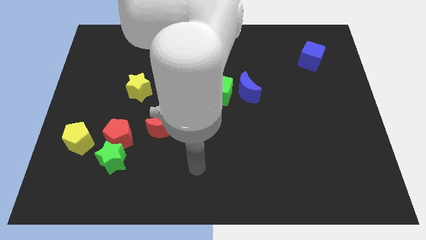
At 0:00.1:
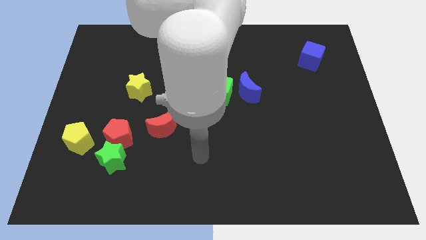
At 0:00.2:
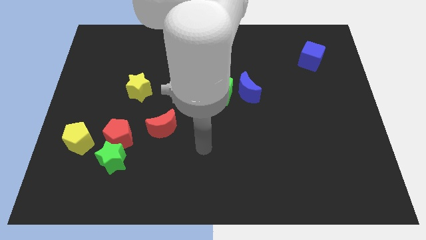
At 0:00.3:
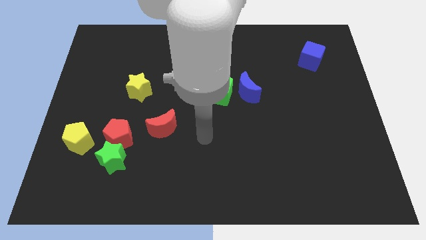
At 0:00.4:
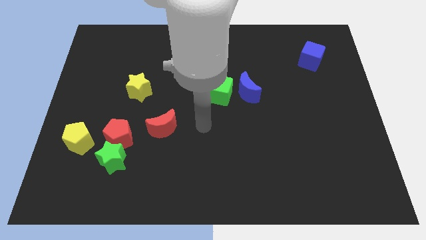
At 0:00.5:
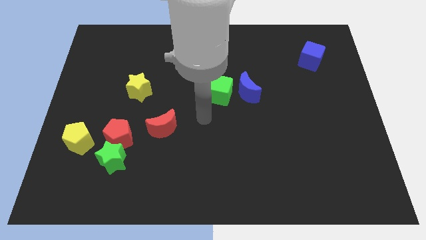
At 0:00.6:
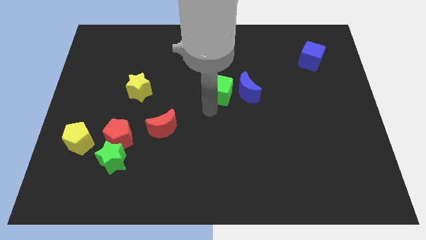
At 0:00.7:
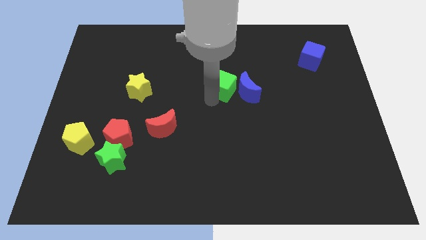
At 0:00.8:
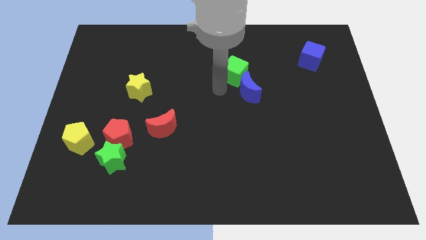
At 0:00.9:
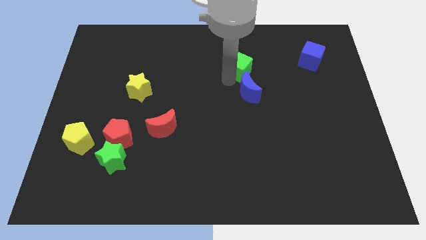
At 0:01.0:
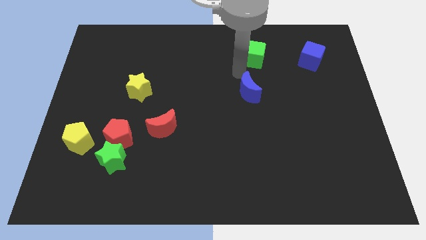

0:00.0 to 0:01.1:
separate the blue moon from the green cube

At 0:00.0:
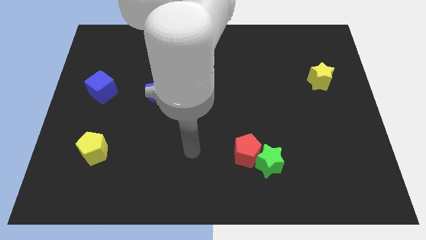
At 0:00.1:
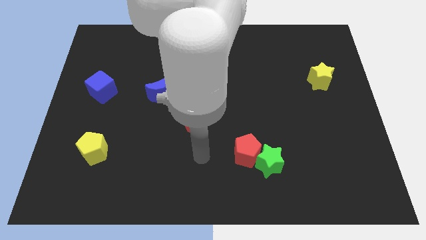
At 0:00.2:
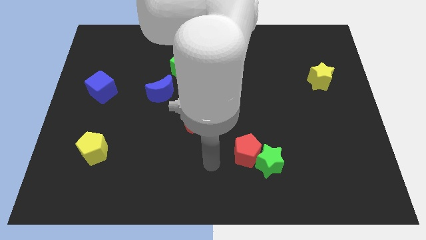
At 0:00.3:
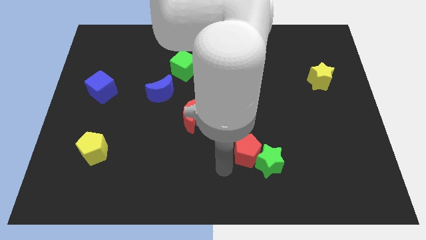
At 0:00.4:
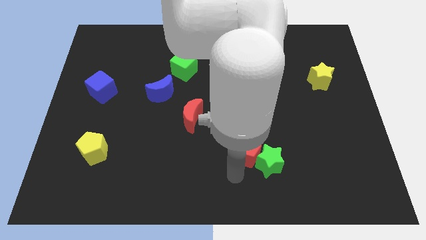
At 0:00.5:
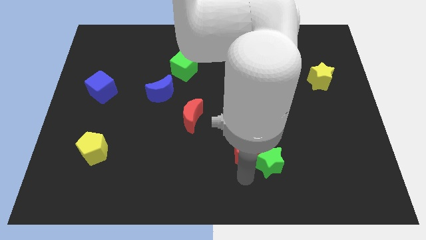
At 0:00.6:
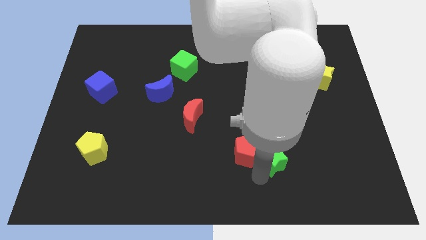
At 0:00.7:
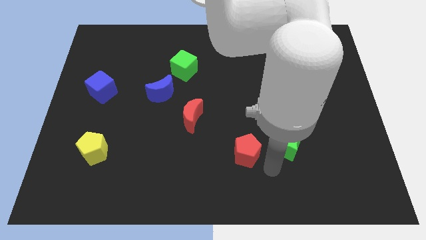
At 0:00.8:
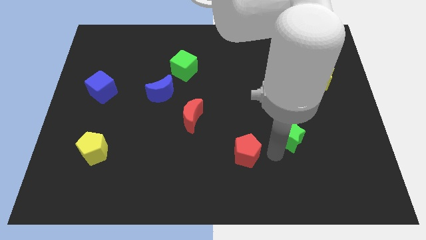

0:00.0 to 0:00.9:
separate the red pentagon from the green star

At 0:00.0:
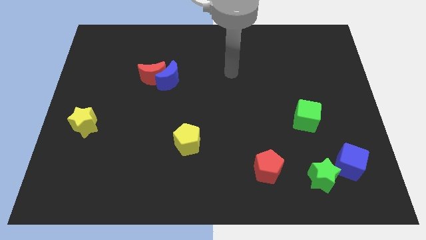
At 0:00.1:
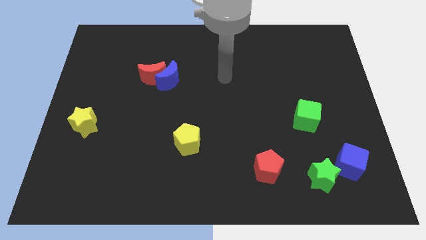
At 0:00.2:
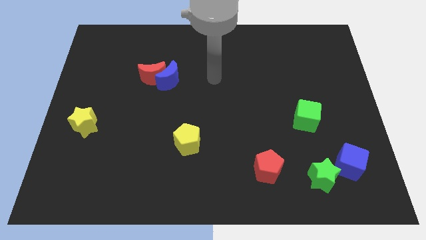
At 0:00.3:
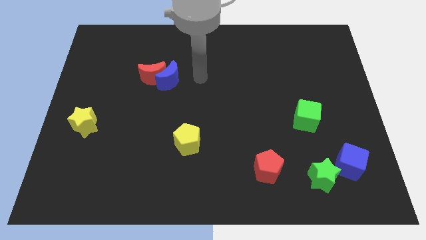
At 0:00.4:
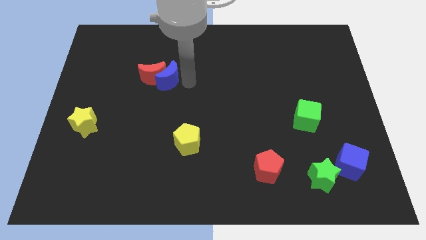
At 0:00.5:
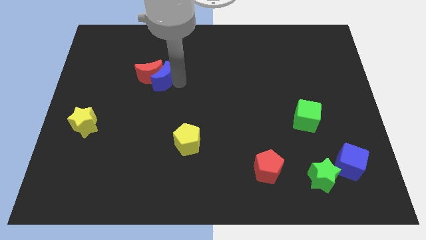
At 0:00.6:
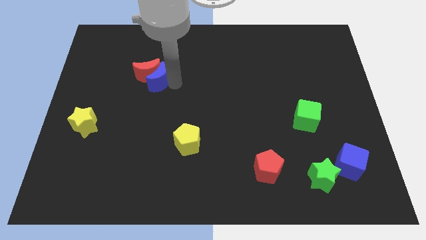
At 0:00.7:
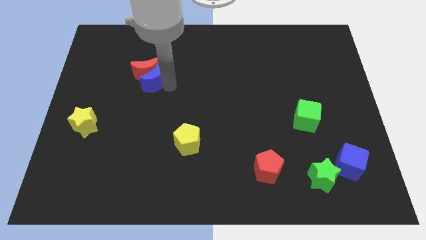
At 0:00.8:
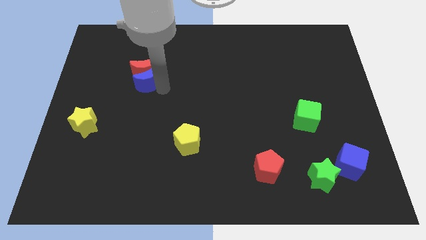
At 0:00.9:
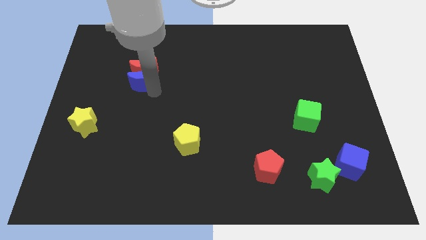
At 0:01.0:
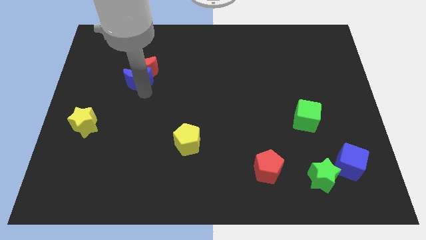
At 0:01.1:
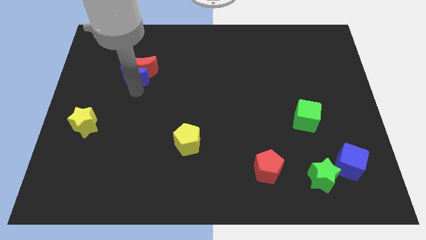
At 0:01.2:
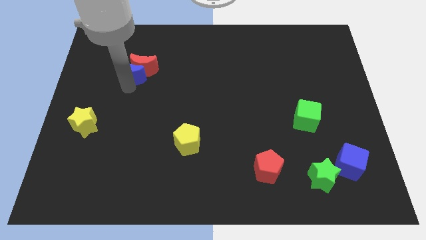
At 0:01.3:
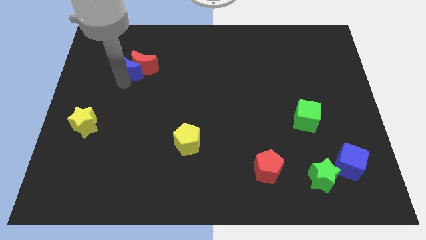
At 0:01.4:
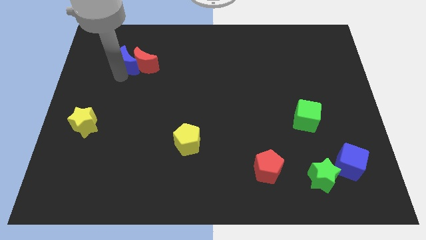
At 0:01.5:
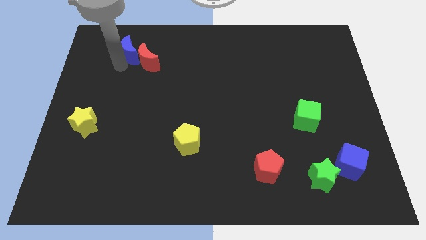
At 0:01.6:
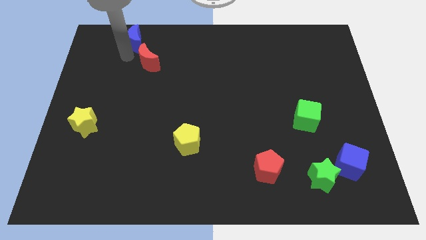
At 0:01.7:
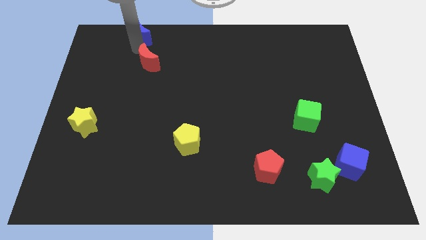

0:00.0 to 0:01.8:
move the red moon away from the blue moon

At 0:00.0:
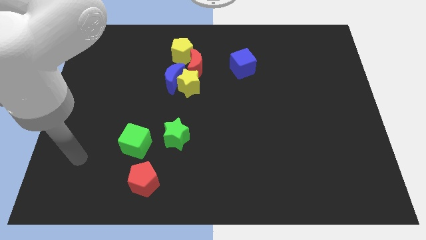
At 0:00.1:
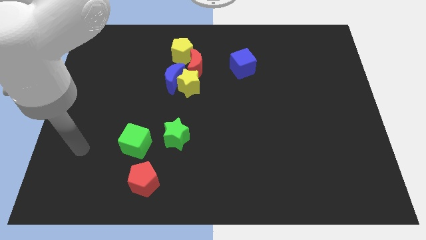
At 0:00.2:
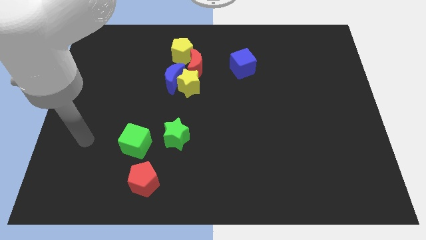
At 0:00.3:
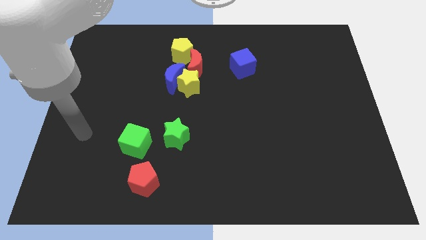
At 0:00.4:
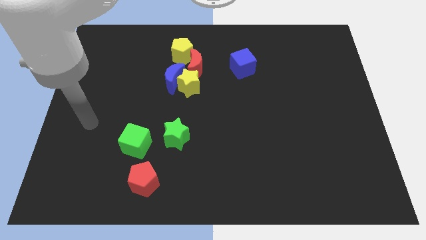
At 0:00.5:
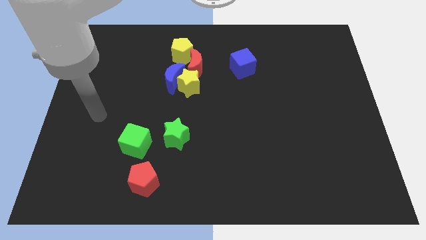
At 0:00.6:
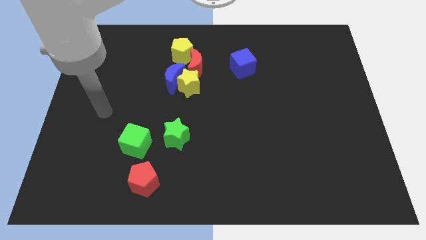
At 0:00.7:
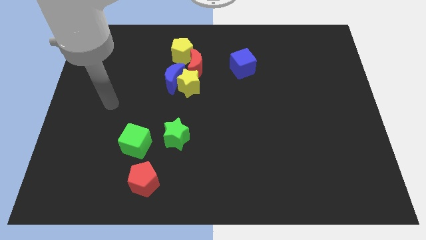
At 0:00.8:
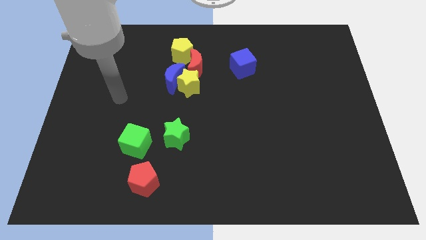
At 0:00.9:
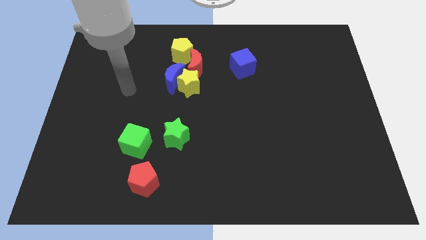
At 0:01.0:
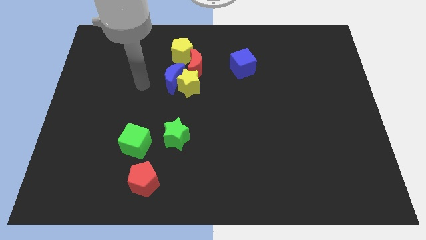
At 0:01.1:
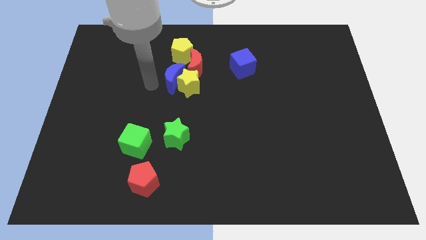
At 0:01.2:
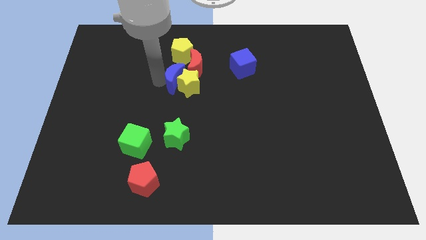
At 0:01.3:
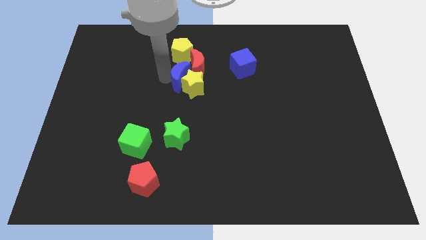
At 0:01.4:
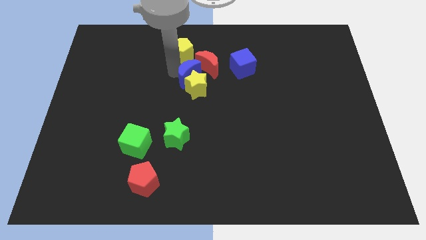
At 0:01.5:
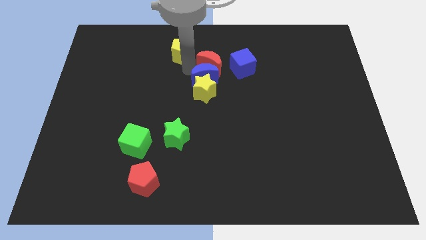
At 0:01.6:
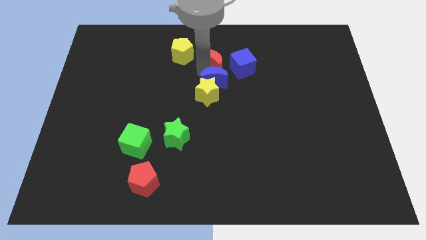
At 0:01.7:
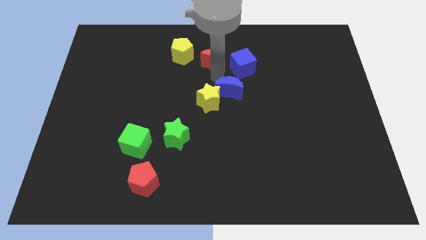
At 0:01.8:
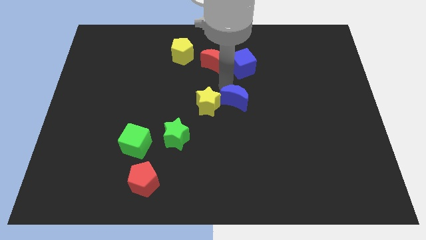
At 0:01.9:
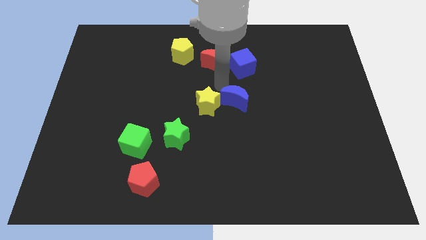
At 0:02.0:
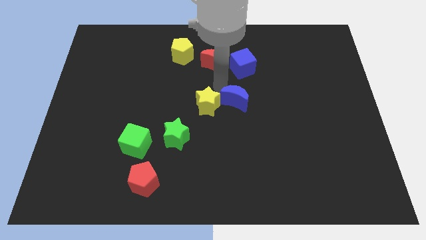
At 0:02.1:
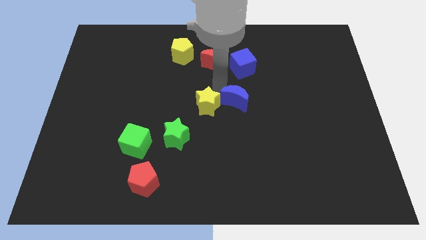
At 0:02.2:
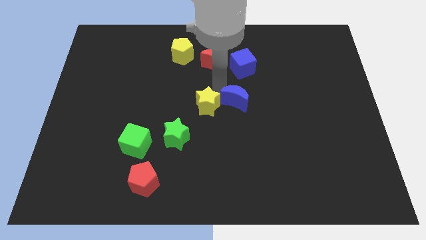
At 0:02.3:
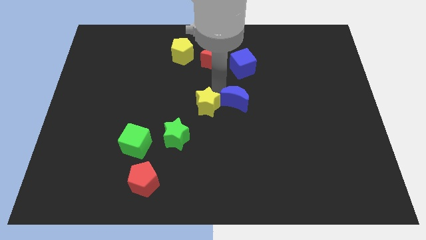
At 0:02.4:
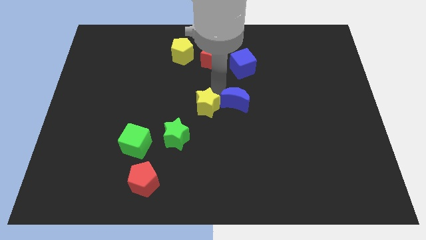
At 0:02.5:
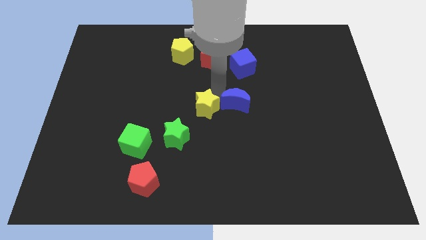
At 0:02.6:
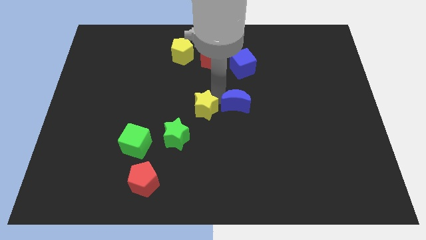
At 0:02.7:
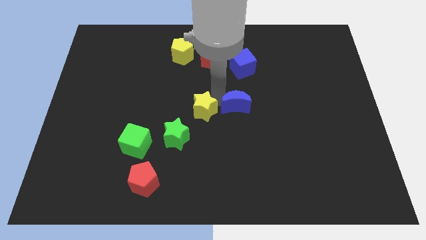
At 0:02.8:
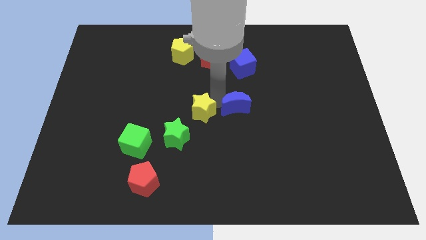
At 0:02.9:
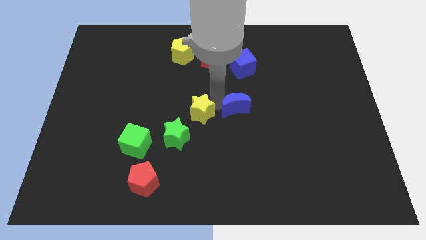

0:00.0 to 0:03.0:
pull the yellow star apart from the blue moon and red moon

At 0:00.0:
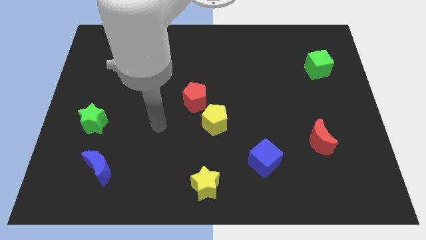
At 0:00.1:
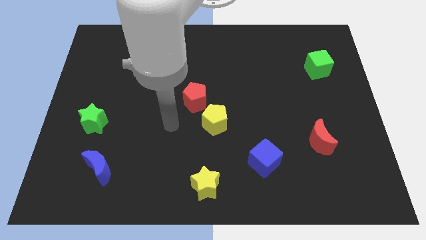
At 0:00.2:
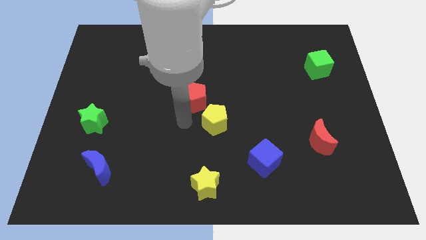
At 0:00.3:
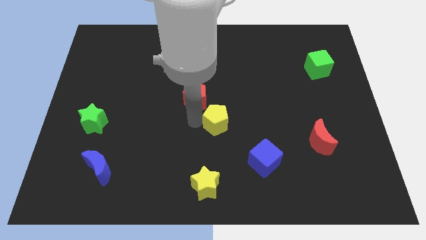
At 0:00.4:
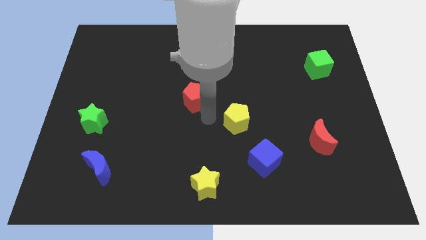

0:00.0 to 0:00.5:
separate the red pentagon from the yellow pentagon

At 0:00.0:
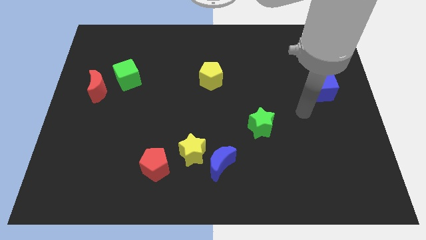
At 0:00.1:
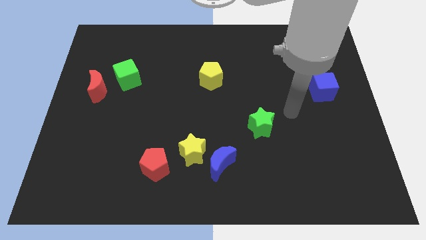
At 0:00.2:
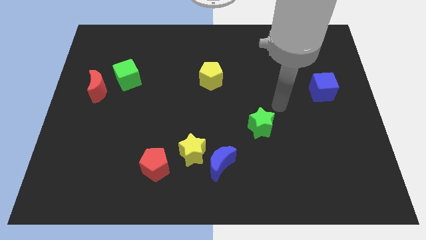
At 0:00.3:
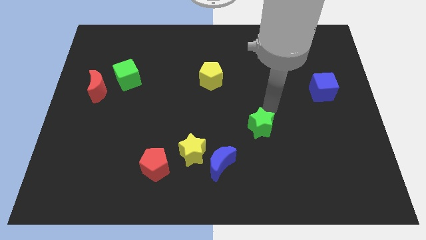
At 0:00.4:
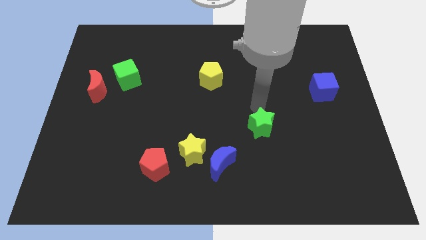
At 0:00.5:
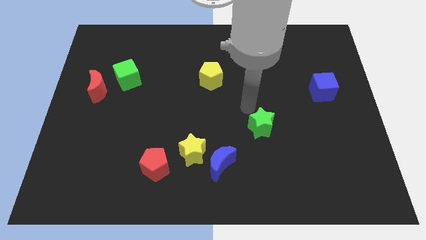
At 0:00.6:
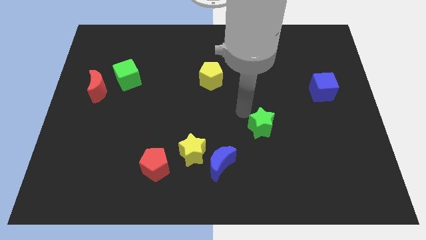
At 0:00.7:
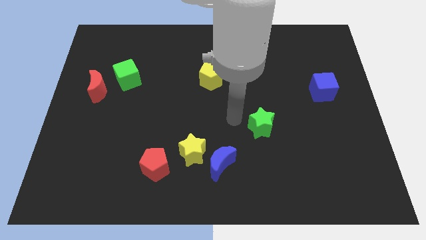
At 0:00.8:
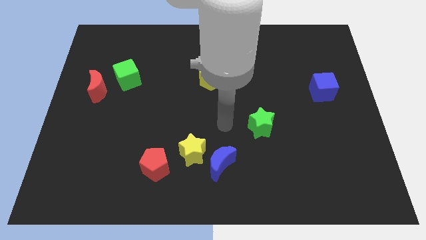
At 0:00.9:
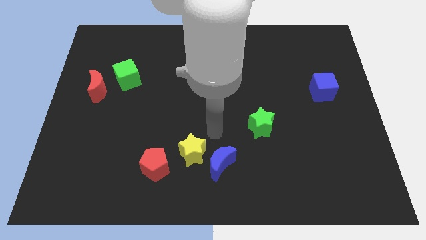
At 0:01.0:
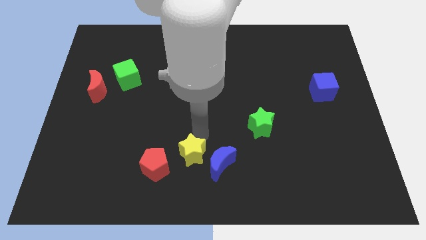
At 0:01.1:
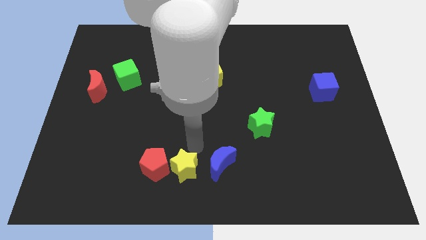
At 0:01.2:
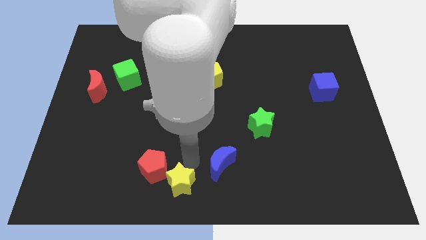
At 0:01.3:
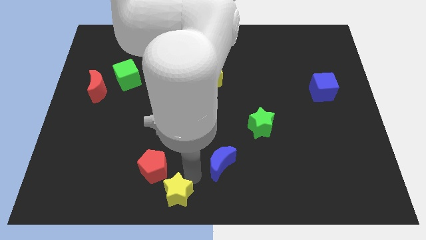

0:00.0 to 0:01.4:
separate the blue moon from the yellow star

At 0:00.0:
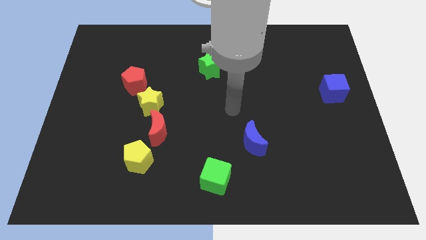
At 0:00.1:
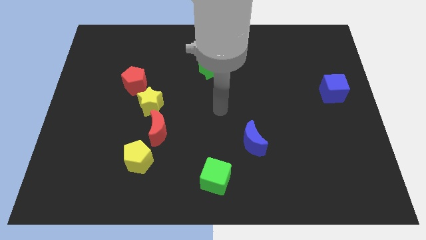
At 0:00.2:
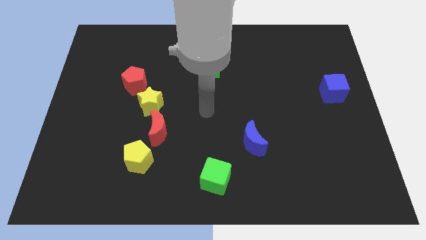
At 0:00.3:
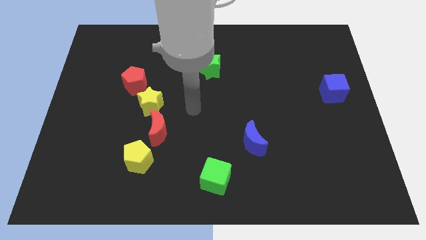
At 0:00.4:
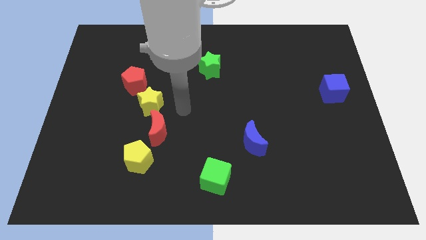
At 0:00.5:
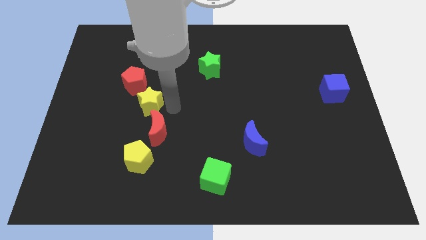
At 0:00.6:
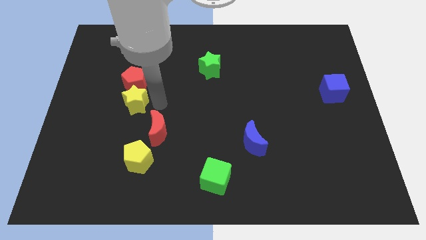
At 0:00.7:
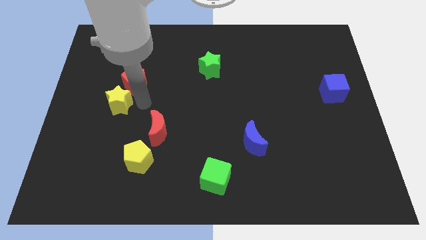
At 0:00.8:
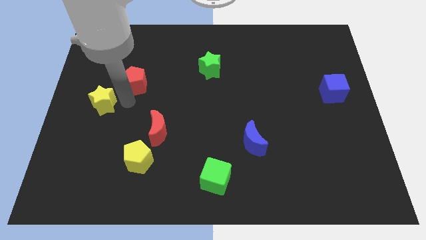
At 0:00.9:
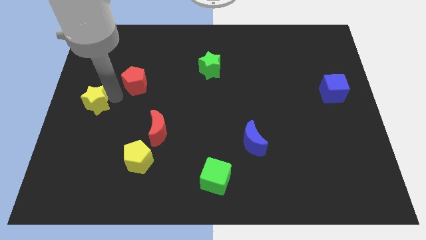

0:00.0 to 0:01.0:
separate the red pentagon from the yellow star
